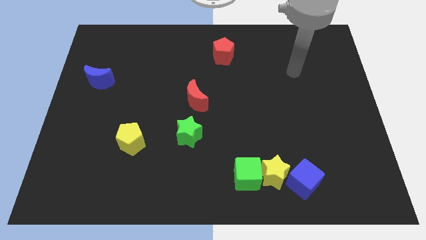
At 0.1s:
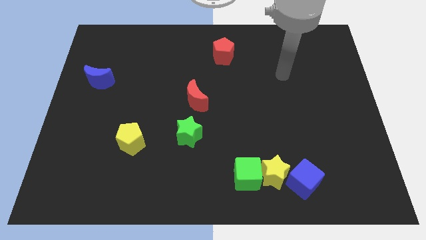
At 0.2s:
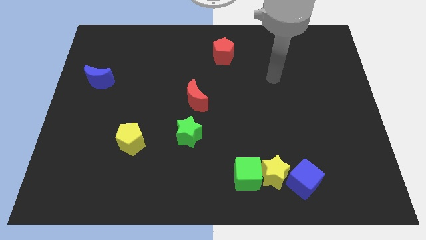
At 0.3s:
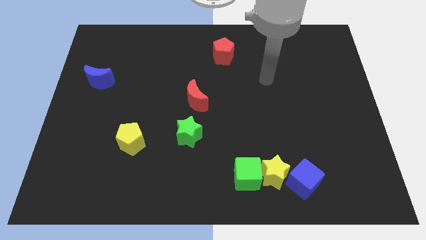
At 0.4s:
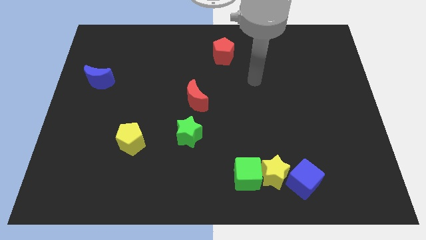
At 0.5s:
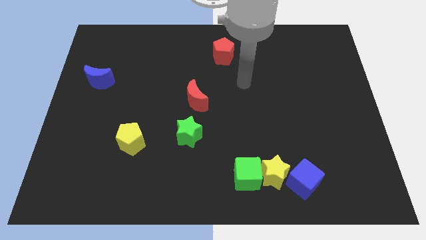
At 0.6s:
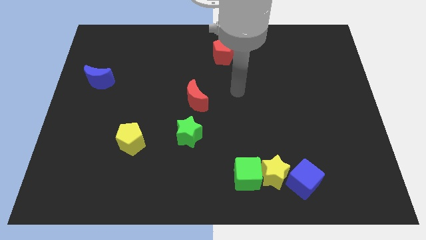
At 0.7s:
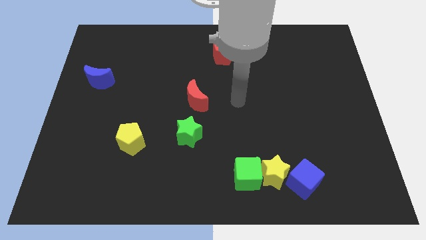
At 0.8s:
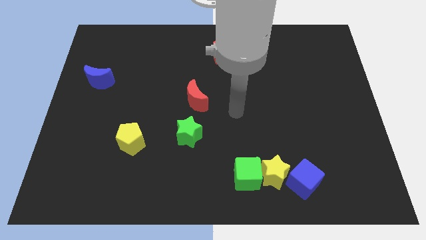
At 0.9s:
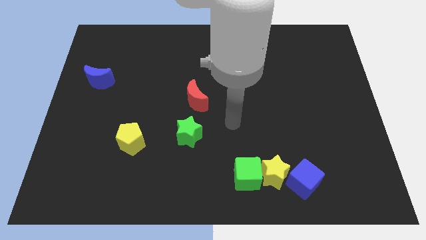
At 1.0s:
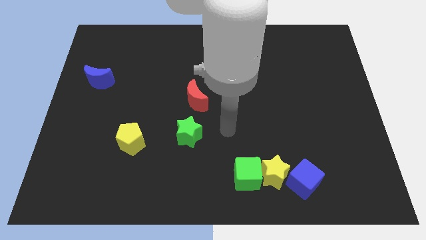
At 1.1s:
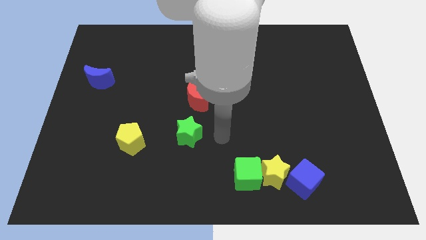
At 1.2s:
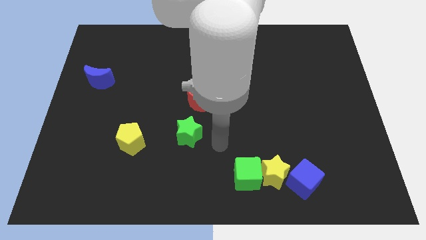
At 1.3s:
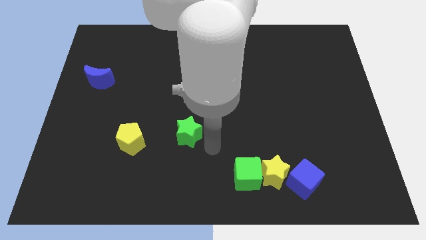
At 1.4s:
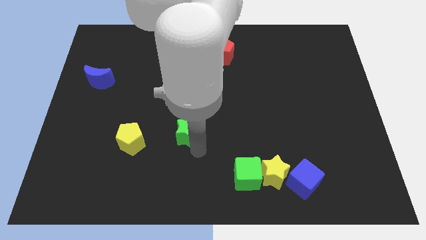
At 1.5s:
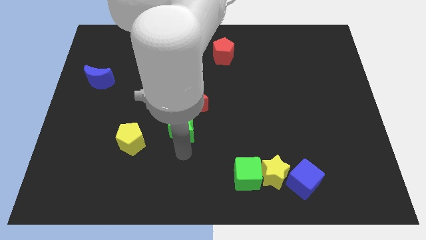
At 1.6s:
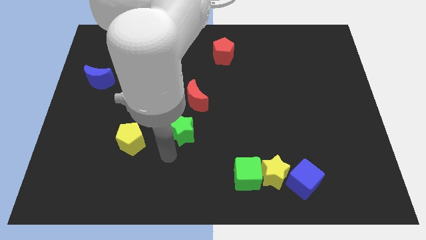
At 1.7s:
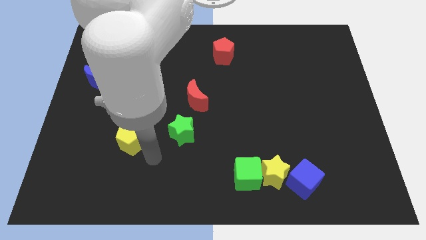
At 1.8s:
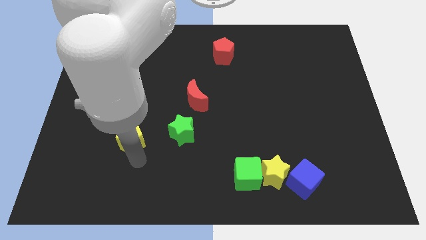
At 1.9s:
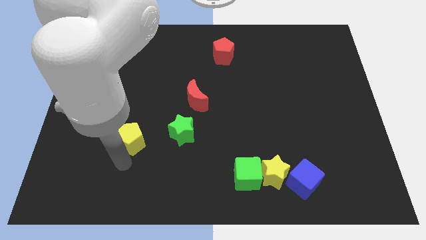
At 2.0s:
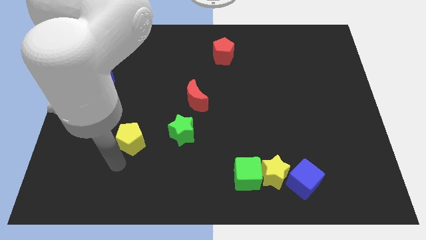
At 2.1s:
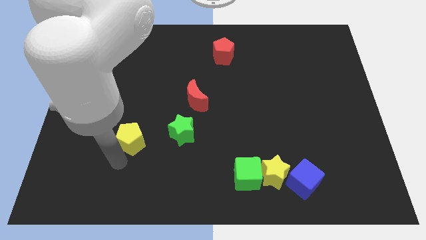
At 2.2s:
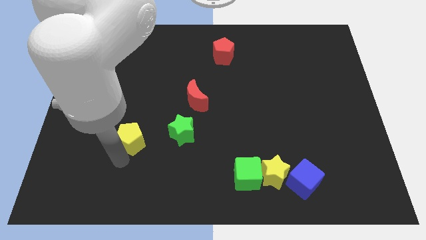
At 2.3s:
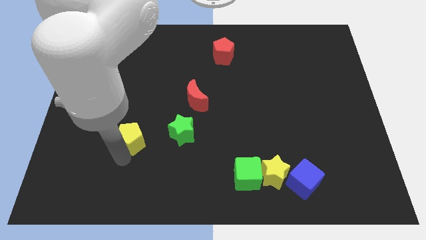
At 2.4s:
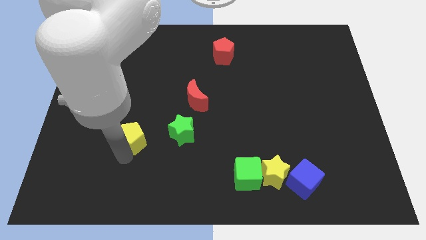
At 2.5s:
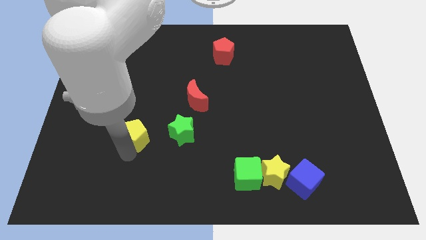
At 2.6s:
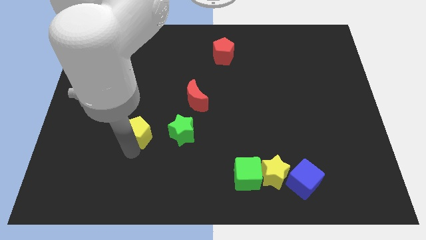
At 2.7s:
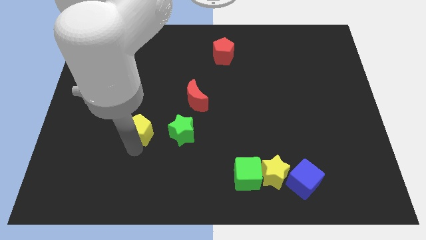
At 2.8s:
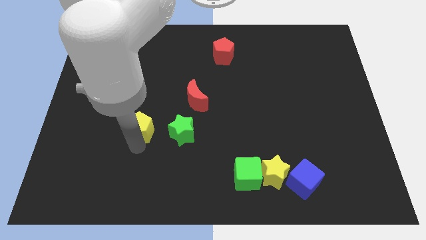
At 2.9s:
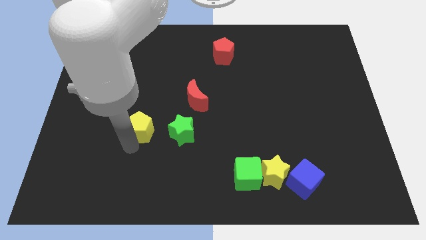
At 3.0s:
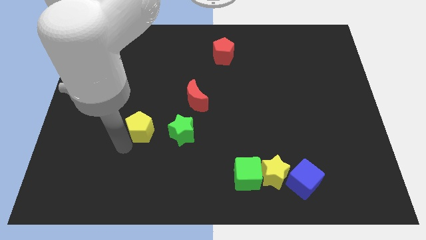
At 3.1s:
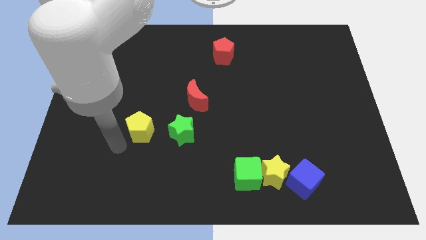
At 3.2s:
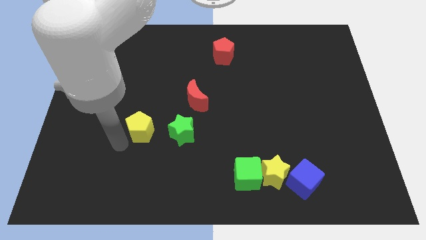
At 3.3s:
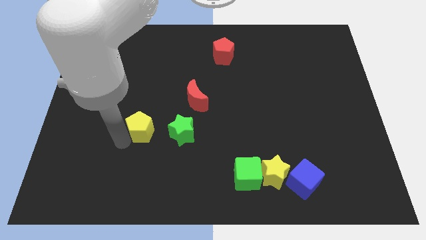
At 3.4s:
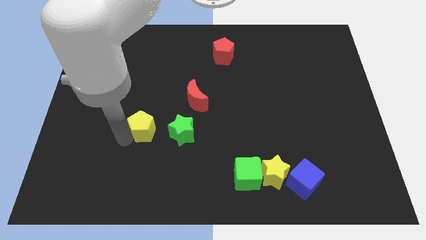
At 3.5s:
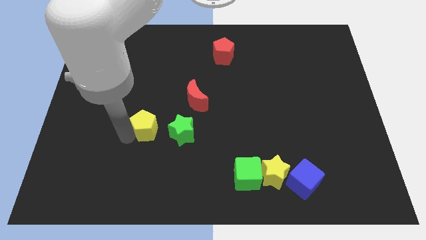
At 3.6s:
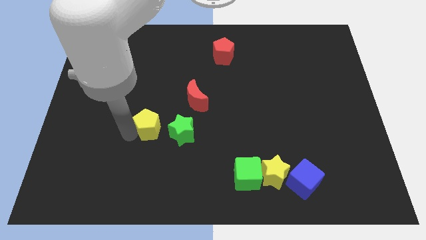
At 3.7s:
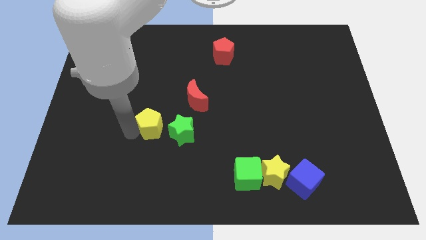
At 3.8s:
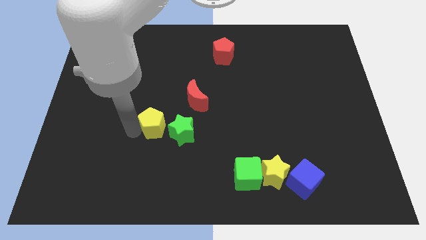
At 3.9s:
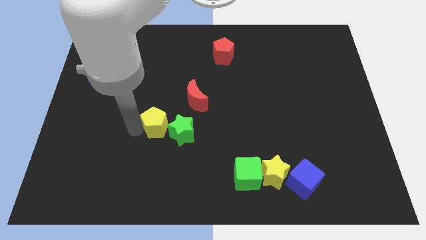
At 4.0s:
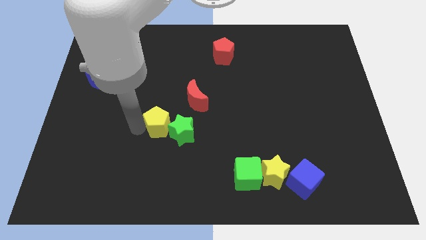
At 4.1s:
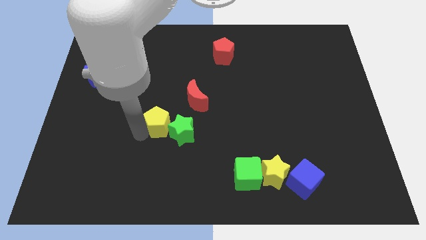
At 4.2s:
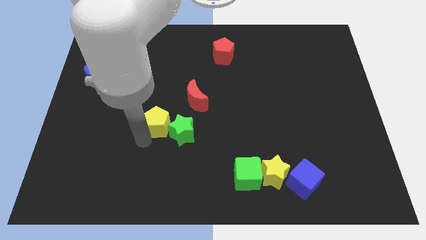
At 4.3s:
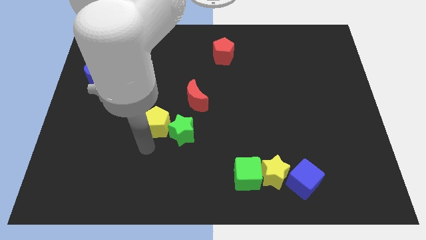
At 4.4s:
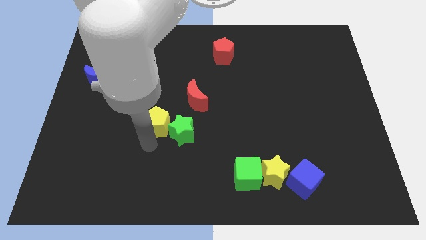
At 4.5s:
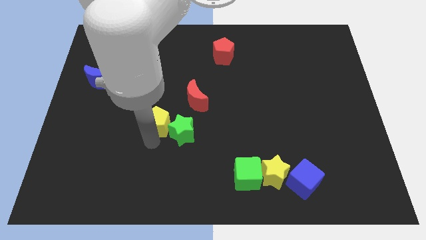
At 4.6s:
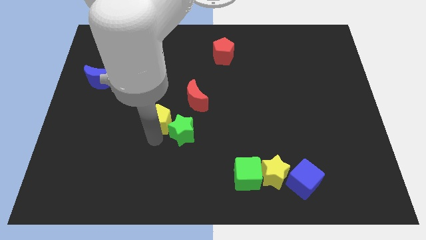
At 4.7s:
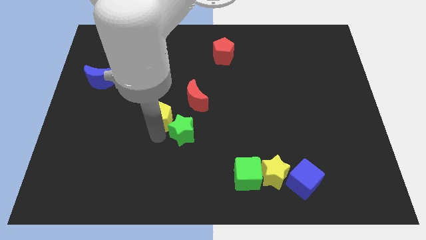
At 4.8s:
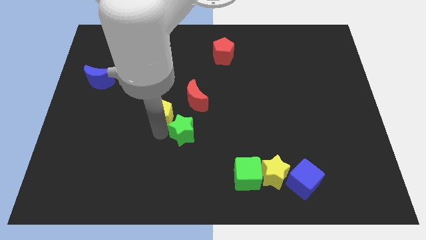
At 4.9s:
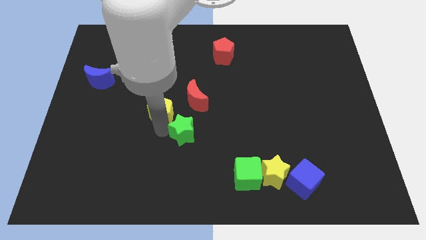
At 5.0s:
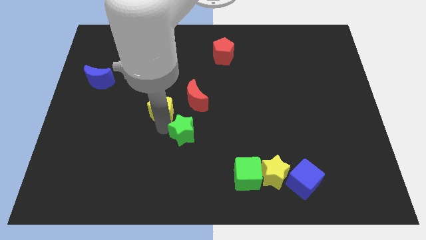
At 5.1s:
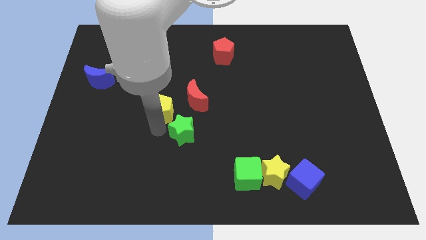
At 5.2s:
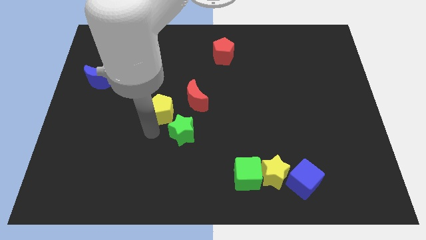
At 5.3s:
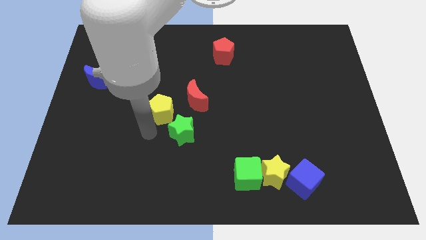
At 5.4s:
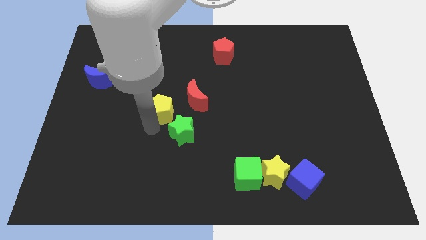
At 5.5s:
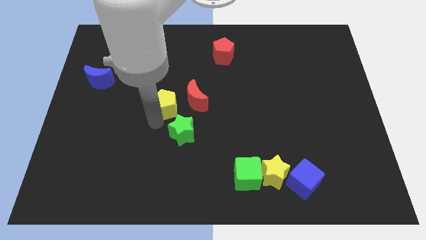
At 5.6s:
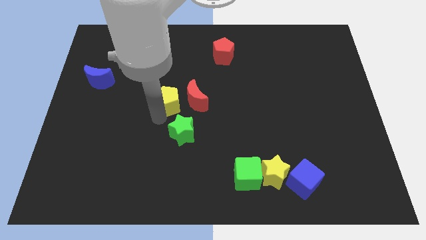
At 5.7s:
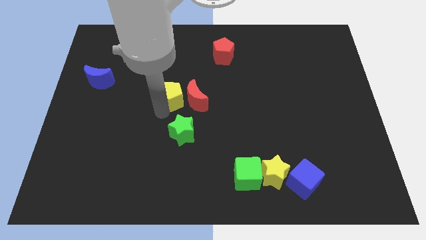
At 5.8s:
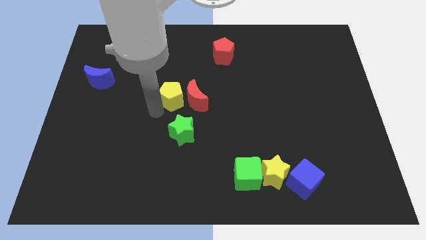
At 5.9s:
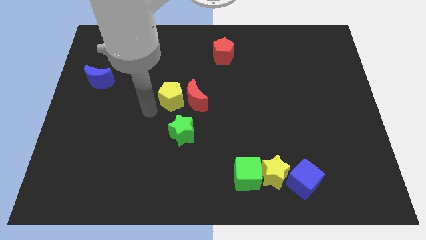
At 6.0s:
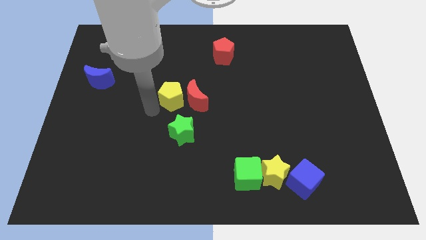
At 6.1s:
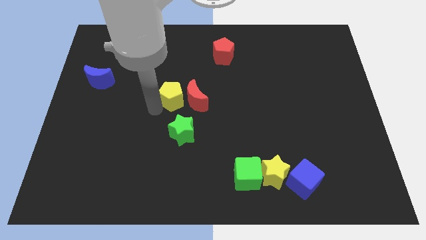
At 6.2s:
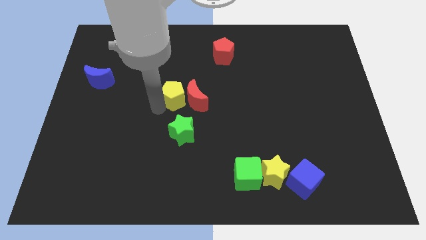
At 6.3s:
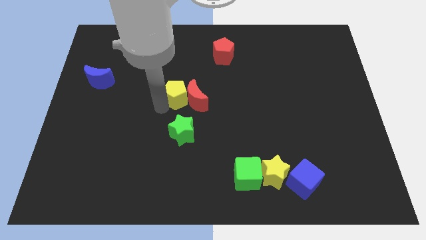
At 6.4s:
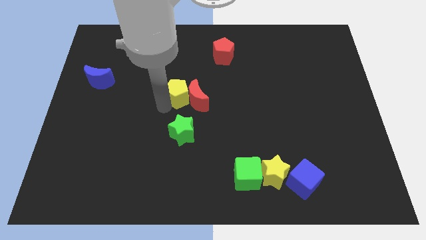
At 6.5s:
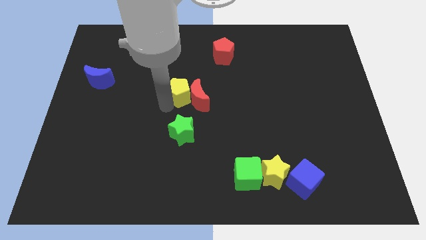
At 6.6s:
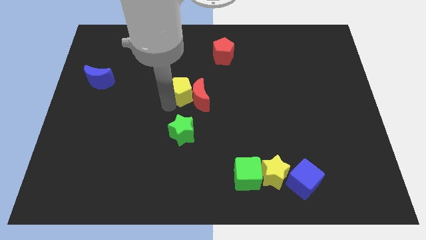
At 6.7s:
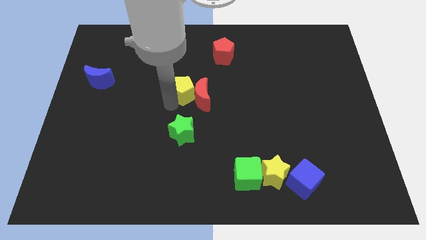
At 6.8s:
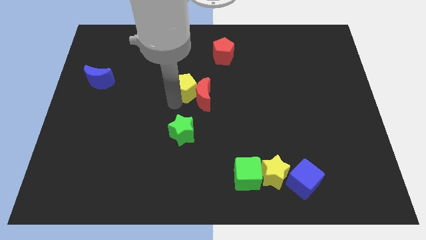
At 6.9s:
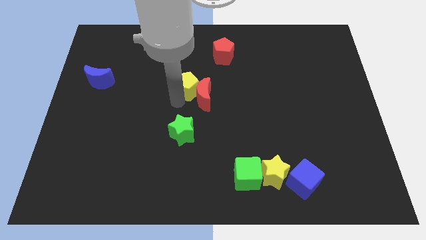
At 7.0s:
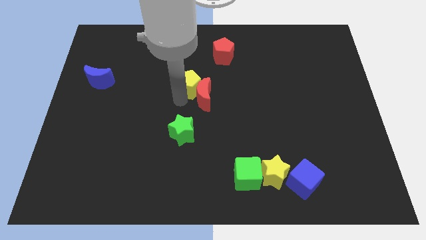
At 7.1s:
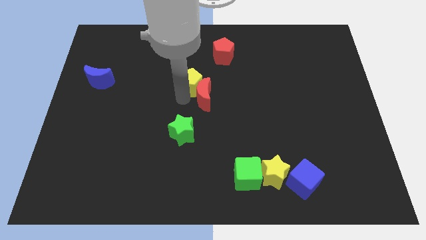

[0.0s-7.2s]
slide the yellow pentagon diagonally up and right

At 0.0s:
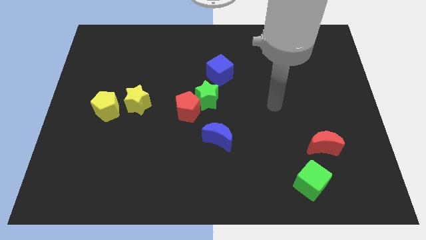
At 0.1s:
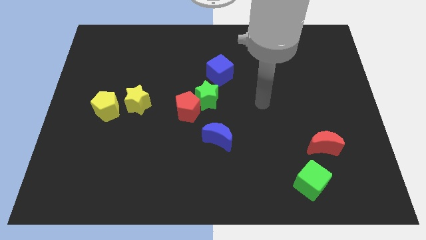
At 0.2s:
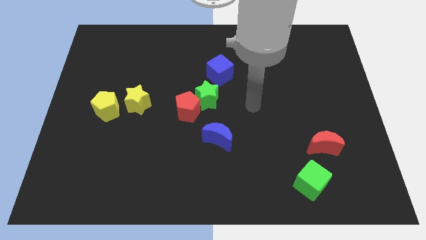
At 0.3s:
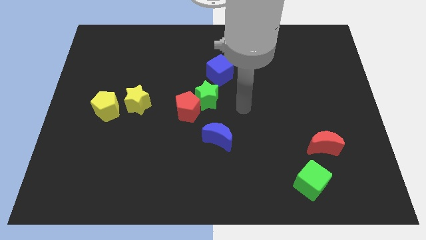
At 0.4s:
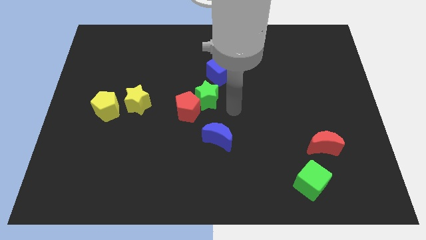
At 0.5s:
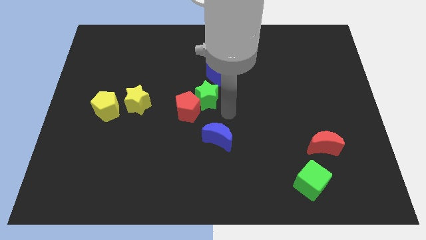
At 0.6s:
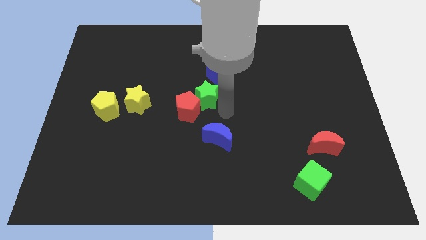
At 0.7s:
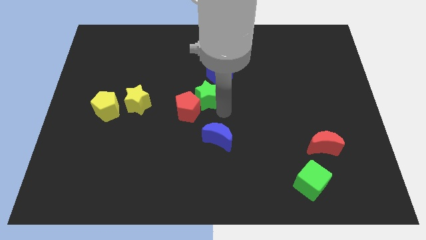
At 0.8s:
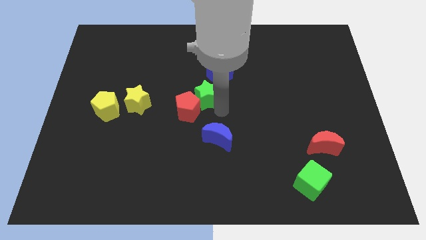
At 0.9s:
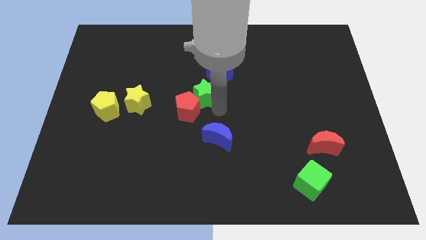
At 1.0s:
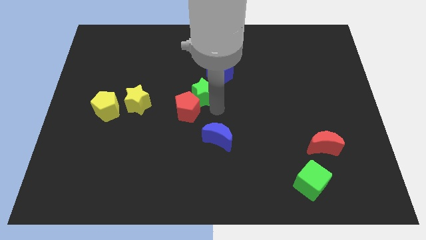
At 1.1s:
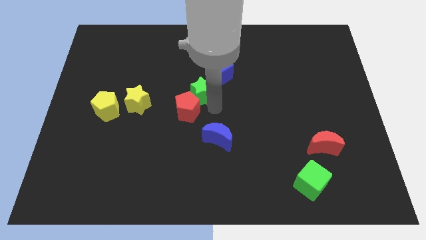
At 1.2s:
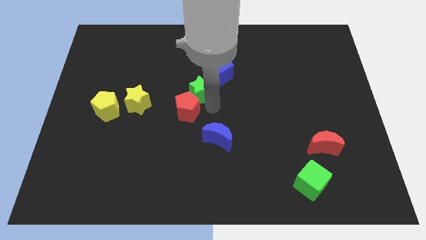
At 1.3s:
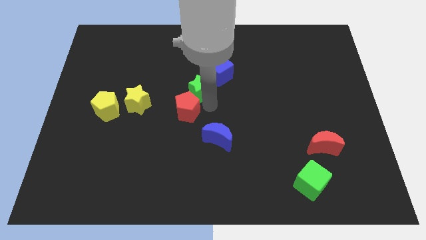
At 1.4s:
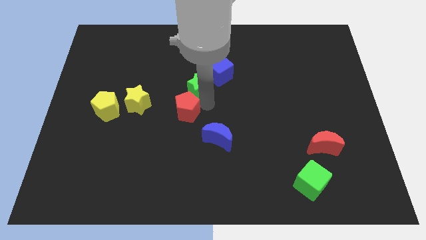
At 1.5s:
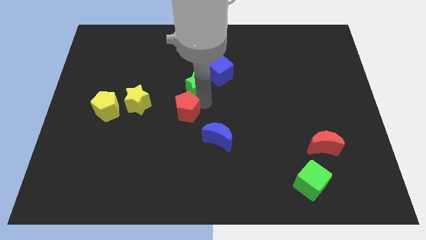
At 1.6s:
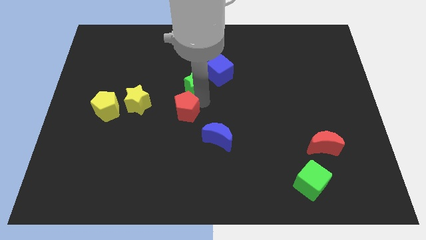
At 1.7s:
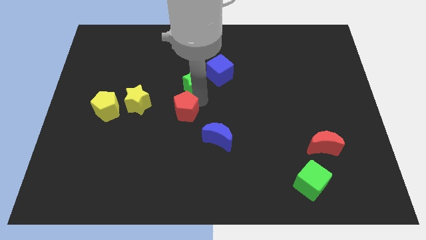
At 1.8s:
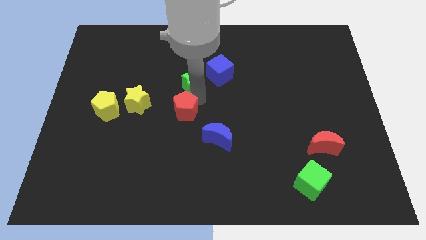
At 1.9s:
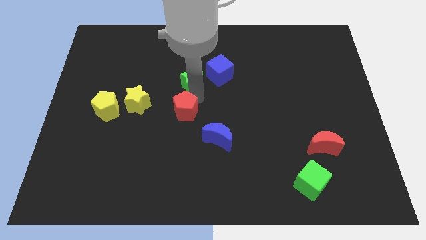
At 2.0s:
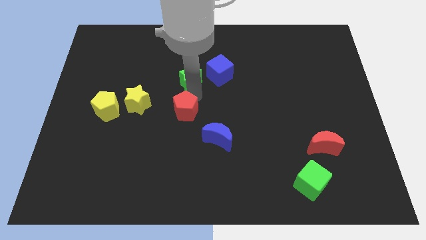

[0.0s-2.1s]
move the green star upwards and then to the left a bit
